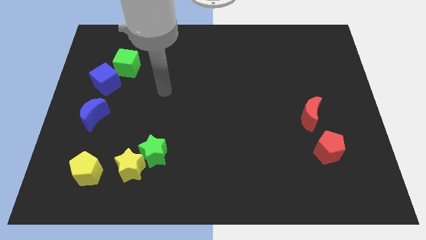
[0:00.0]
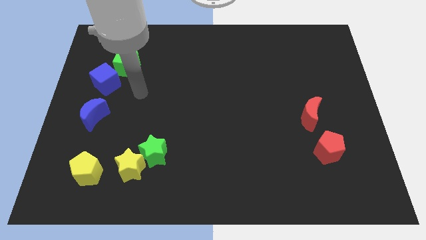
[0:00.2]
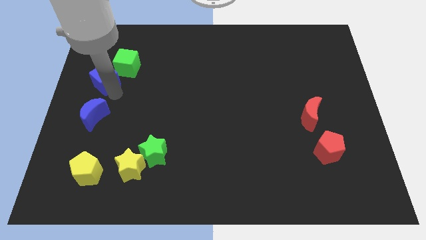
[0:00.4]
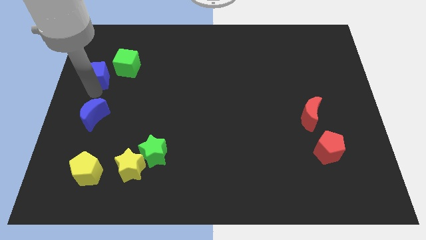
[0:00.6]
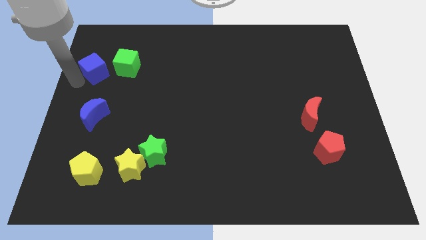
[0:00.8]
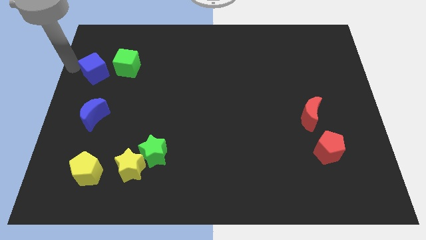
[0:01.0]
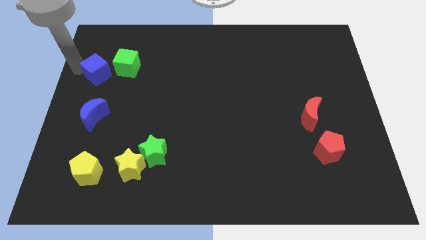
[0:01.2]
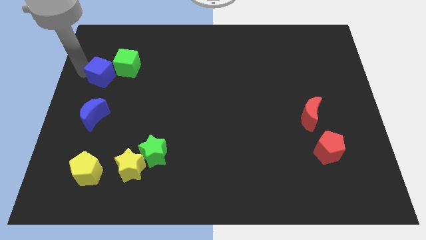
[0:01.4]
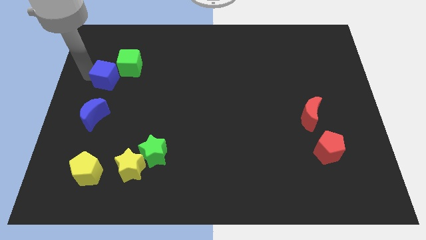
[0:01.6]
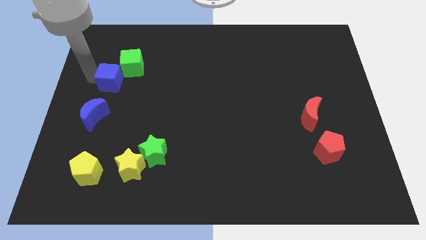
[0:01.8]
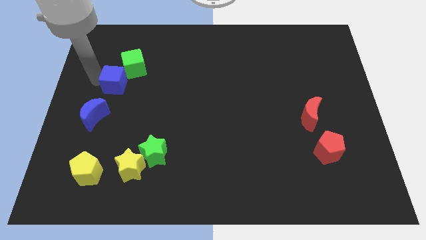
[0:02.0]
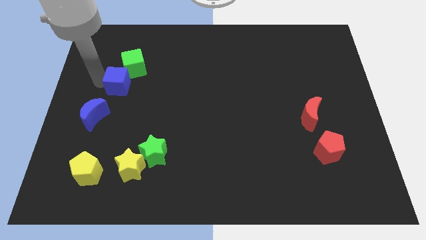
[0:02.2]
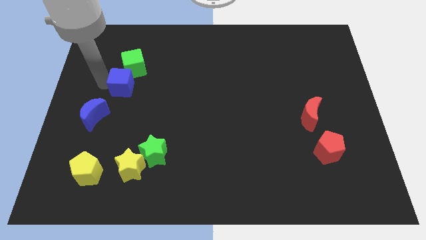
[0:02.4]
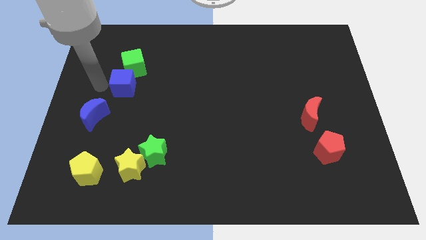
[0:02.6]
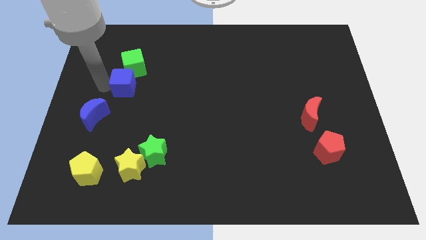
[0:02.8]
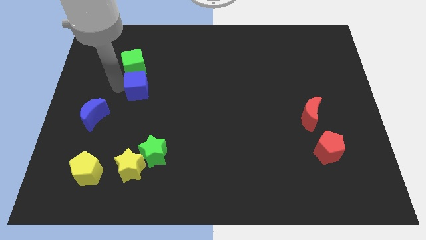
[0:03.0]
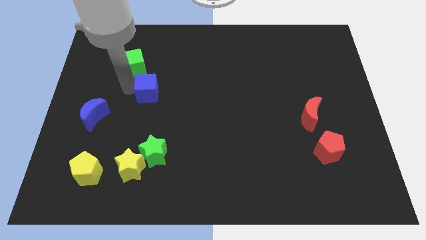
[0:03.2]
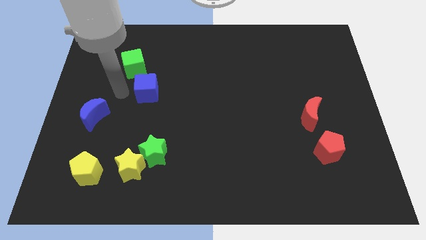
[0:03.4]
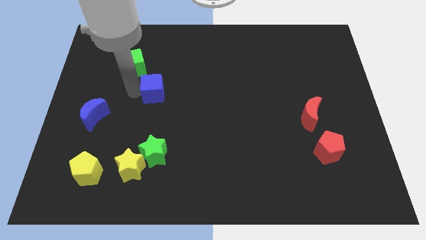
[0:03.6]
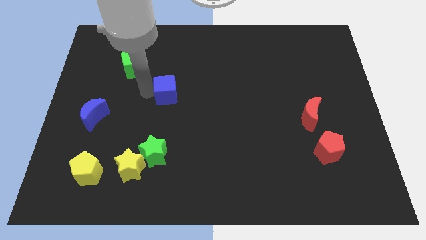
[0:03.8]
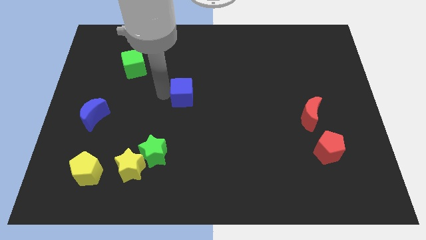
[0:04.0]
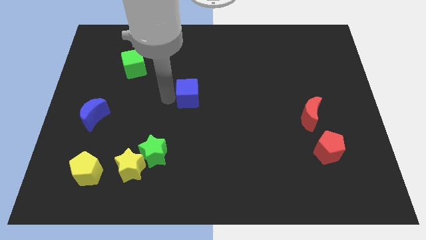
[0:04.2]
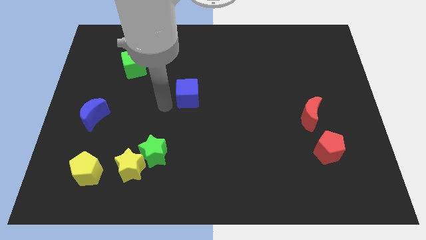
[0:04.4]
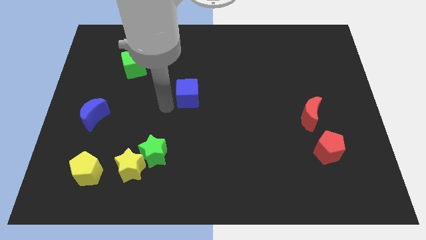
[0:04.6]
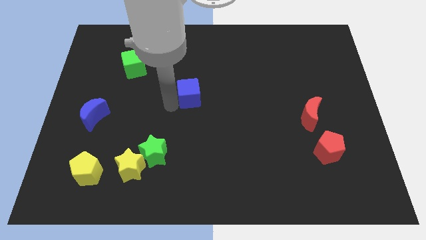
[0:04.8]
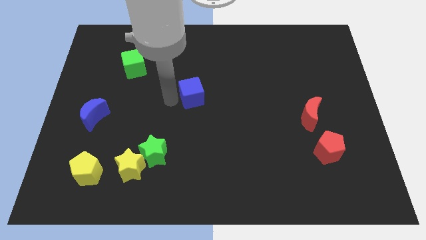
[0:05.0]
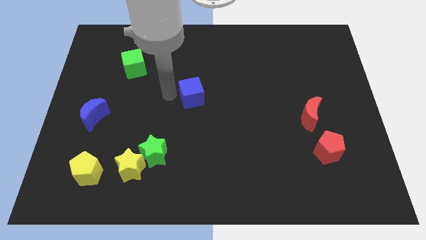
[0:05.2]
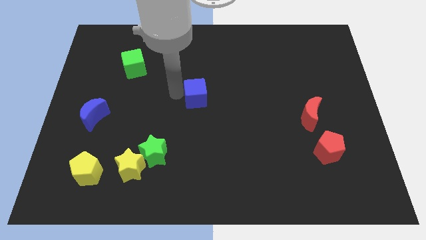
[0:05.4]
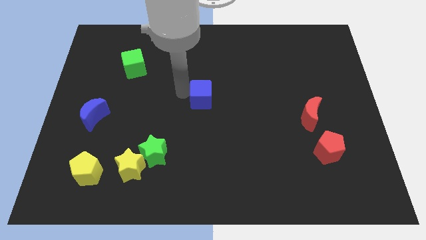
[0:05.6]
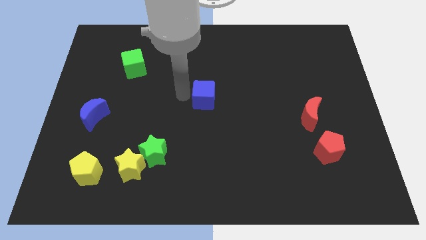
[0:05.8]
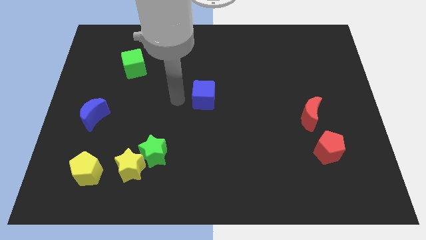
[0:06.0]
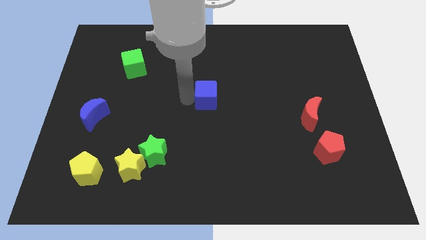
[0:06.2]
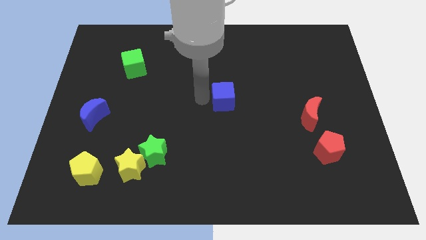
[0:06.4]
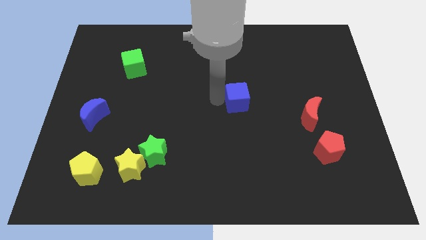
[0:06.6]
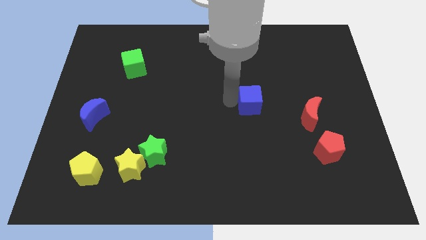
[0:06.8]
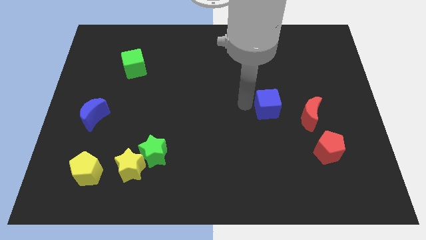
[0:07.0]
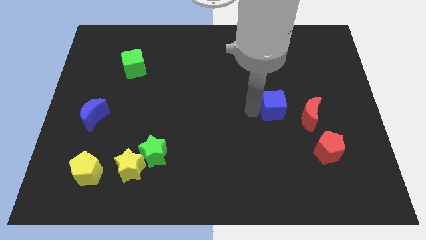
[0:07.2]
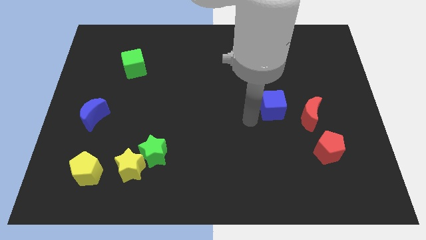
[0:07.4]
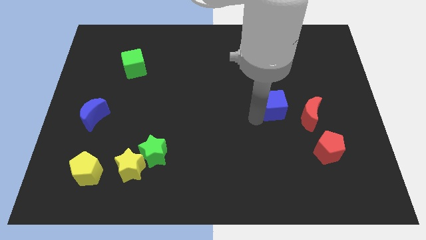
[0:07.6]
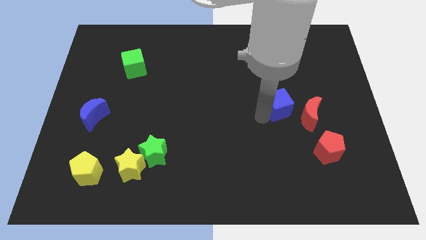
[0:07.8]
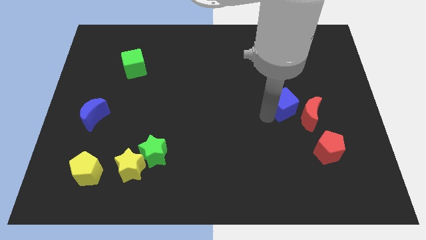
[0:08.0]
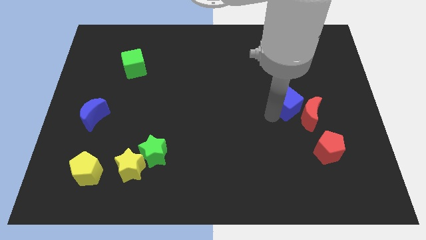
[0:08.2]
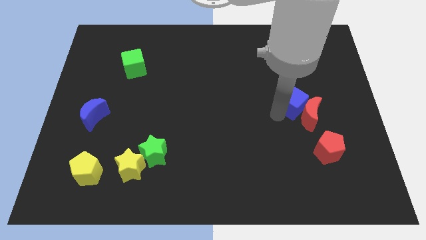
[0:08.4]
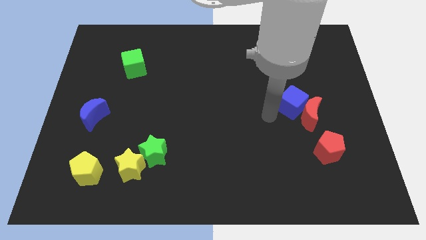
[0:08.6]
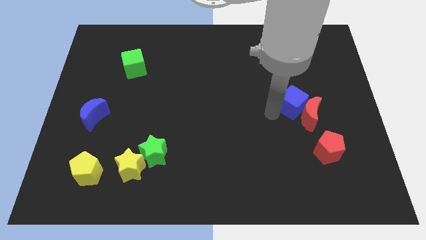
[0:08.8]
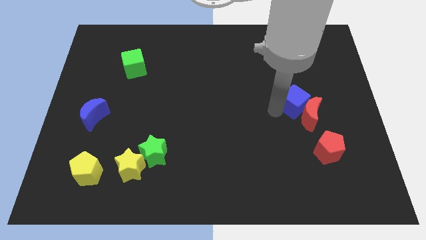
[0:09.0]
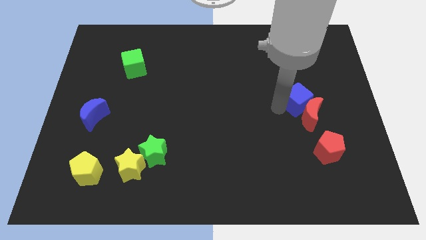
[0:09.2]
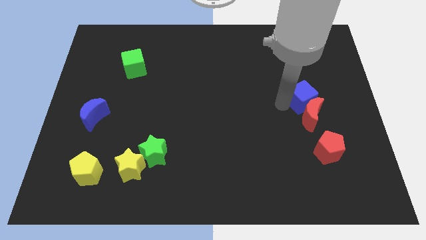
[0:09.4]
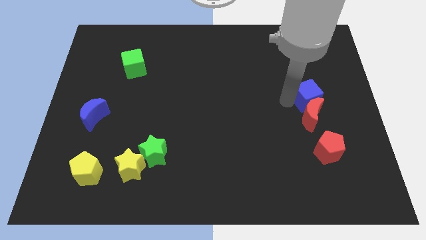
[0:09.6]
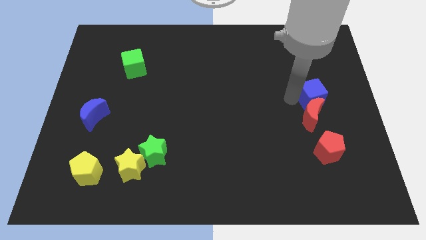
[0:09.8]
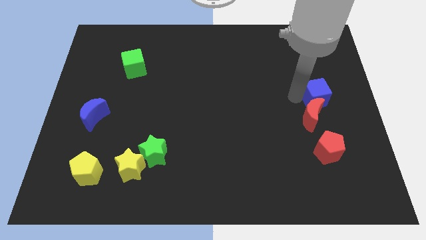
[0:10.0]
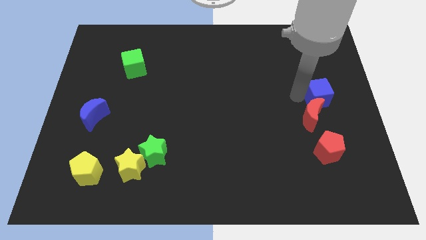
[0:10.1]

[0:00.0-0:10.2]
move the blue cube to the center right

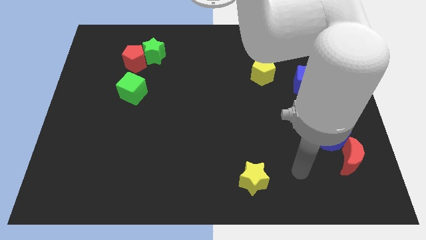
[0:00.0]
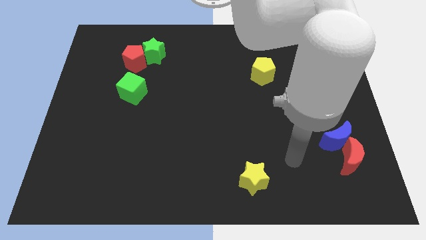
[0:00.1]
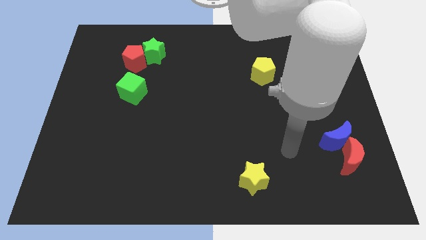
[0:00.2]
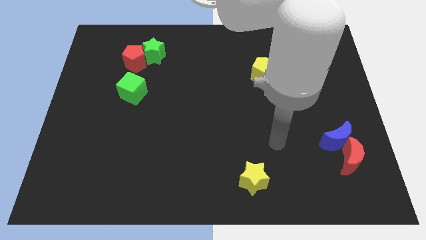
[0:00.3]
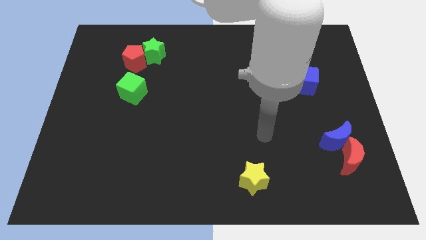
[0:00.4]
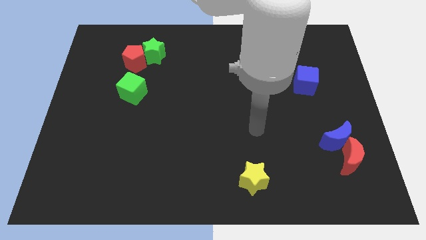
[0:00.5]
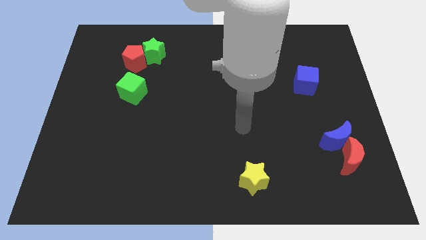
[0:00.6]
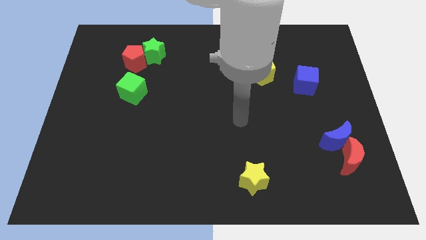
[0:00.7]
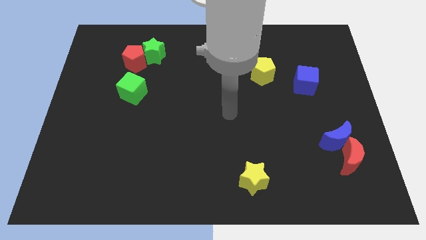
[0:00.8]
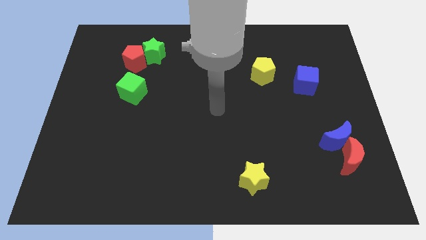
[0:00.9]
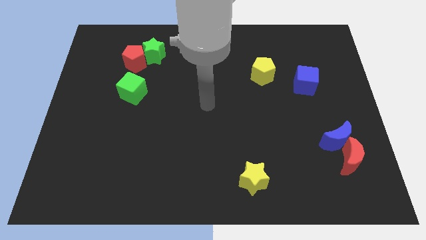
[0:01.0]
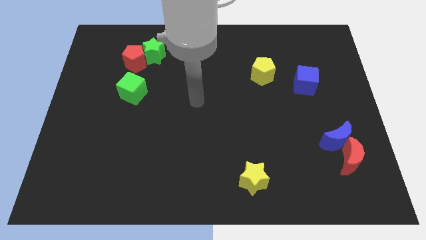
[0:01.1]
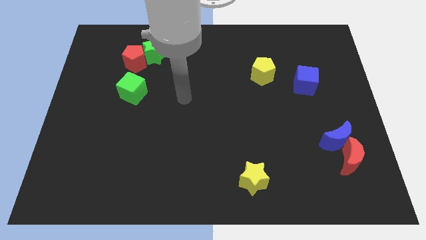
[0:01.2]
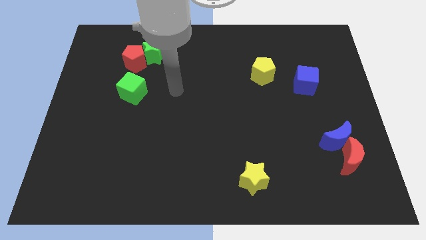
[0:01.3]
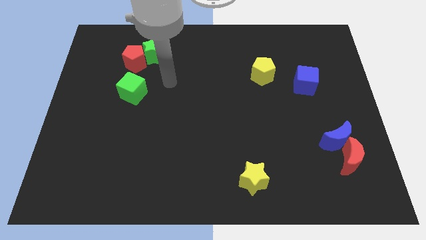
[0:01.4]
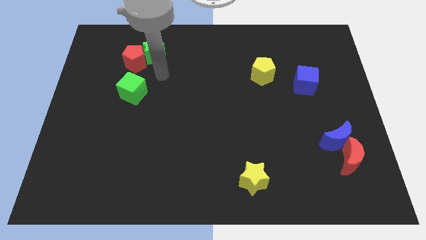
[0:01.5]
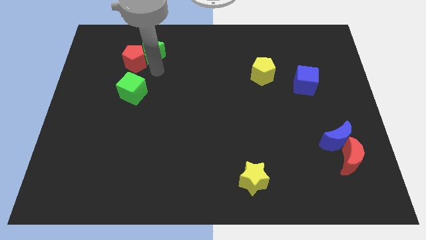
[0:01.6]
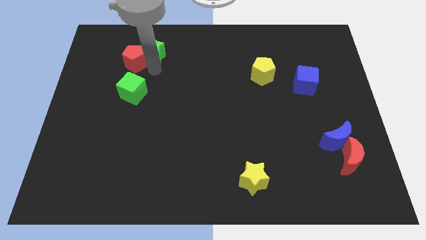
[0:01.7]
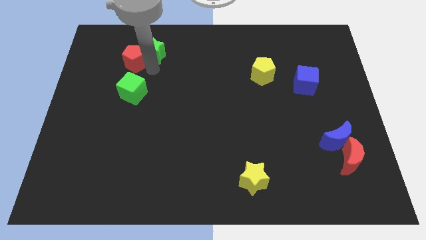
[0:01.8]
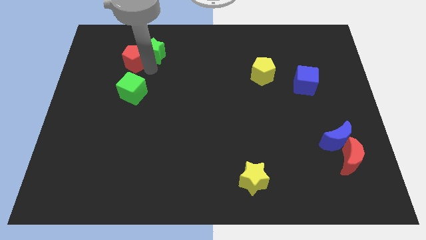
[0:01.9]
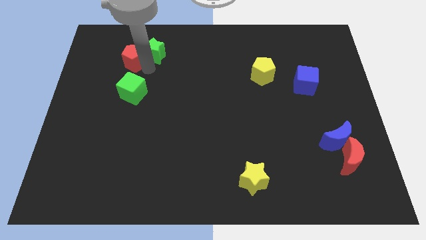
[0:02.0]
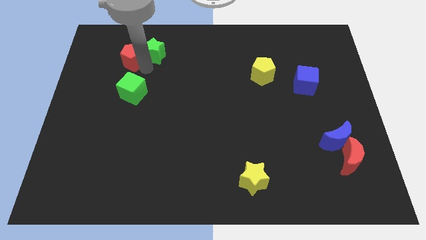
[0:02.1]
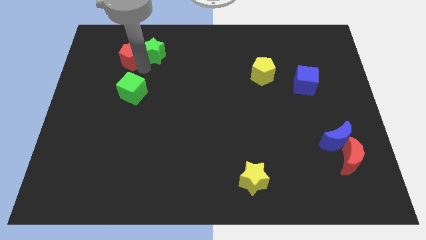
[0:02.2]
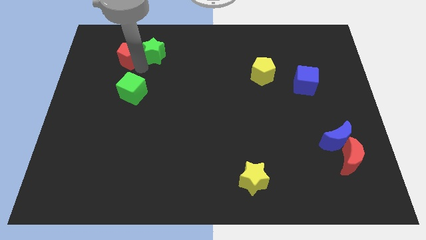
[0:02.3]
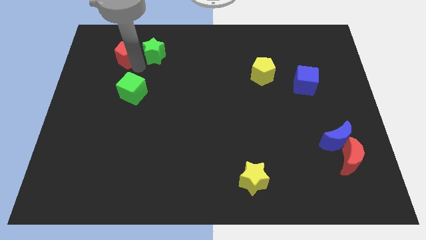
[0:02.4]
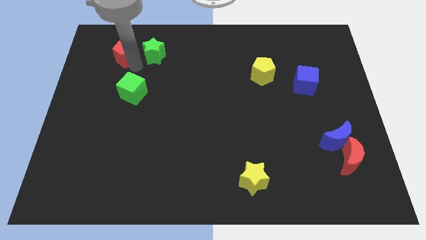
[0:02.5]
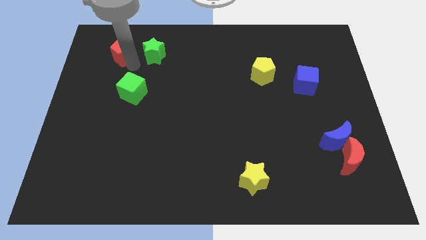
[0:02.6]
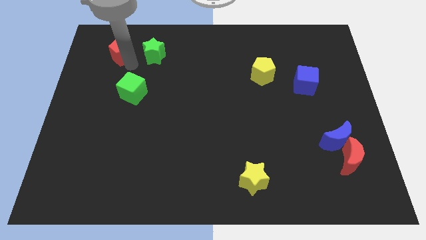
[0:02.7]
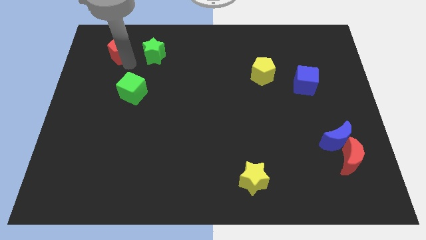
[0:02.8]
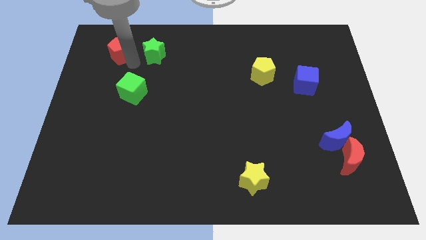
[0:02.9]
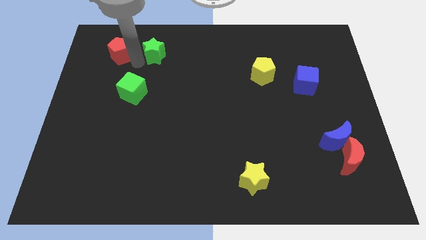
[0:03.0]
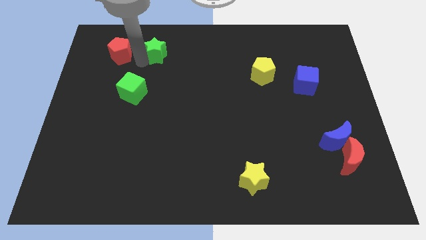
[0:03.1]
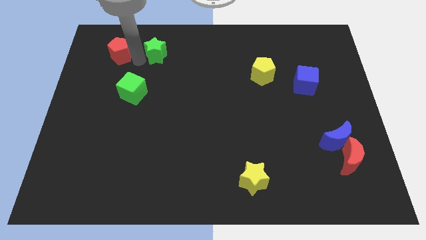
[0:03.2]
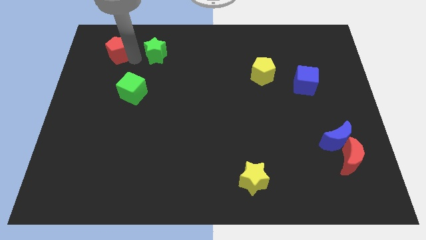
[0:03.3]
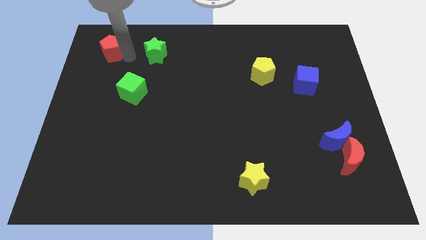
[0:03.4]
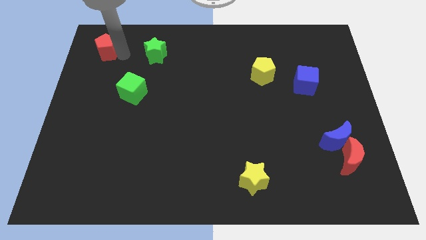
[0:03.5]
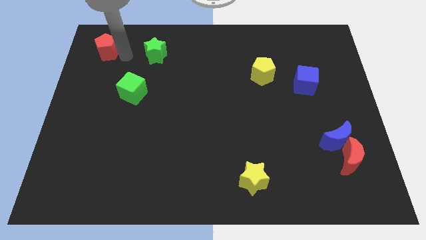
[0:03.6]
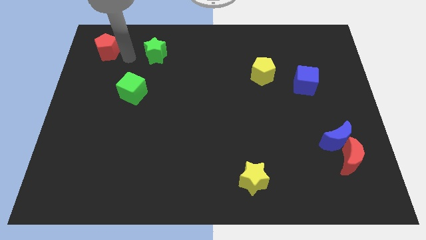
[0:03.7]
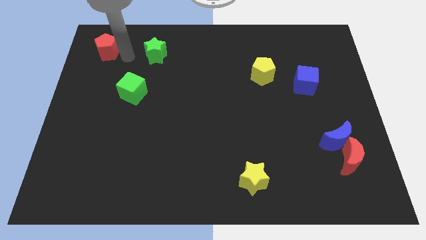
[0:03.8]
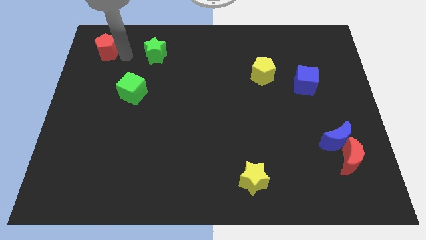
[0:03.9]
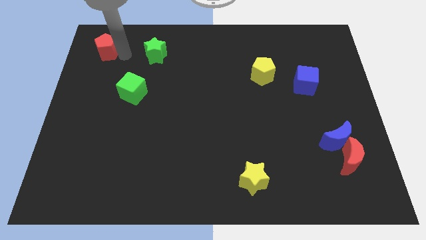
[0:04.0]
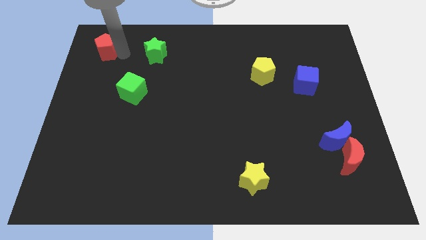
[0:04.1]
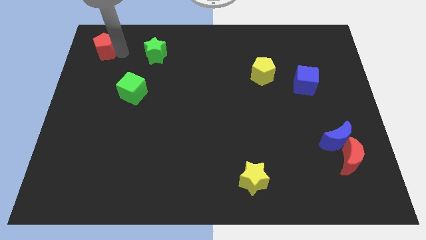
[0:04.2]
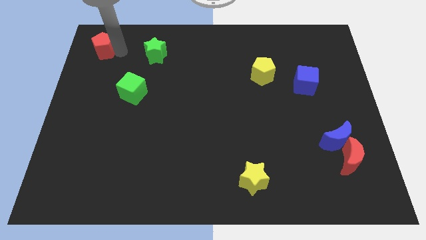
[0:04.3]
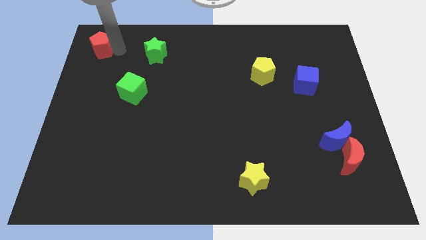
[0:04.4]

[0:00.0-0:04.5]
slide the red pentagon to the top left
